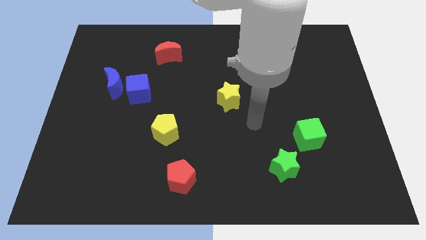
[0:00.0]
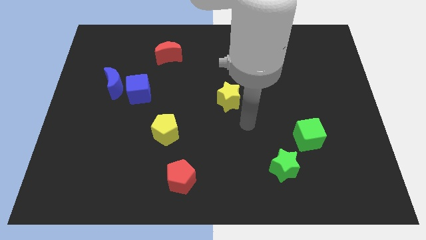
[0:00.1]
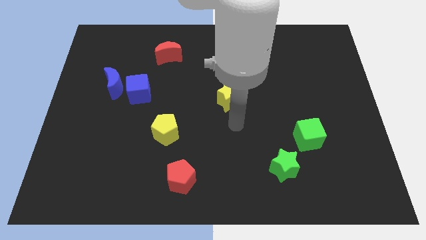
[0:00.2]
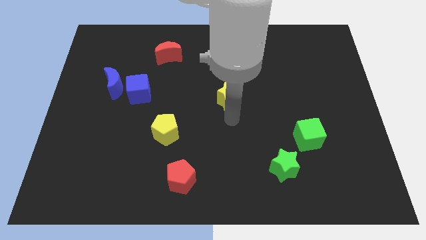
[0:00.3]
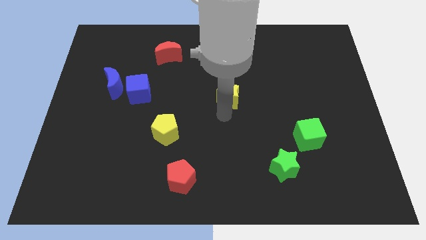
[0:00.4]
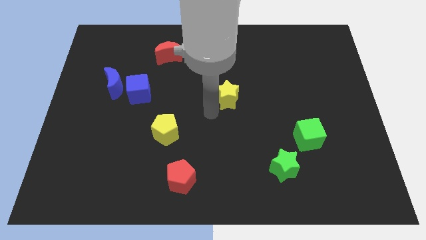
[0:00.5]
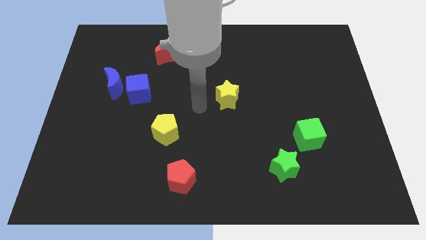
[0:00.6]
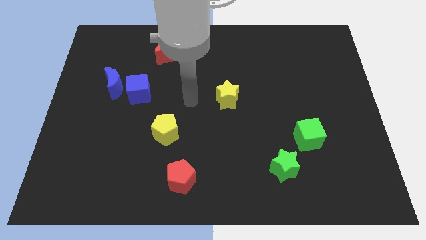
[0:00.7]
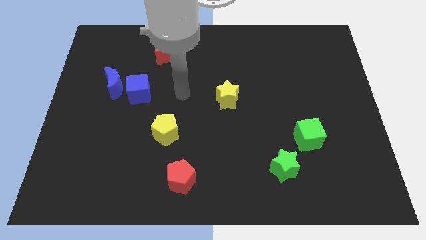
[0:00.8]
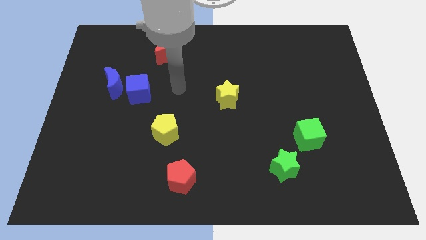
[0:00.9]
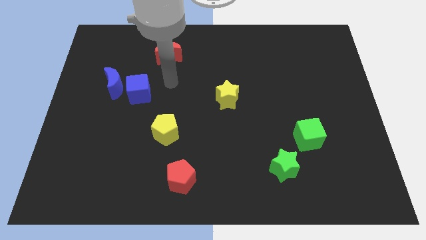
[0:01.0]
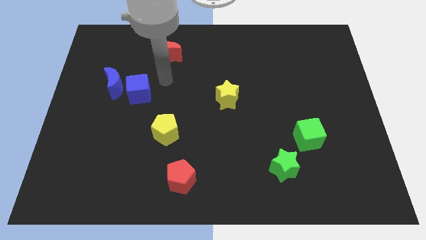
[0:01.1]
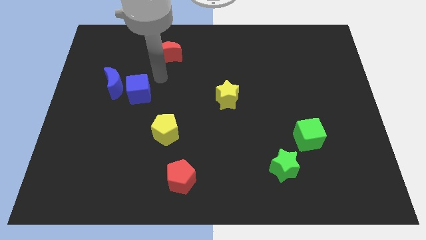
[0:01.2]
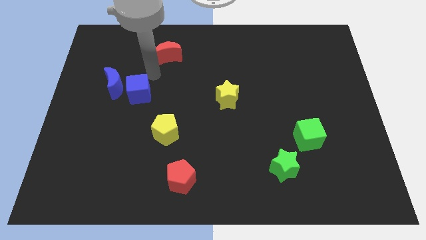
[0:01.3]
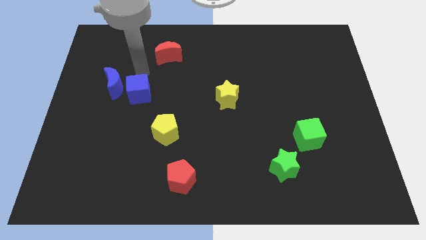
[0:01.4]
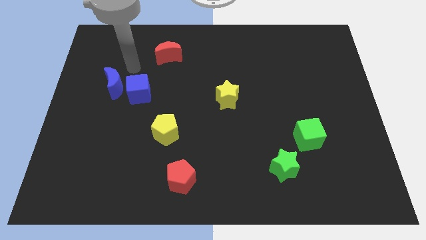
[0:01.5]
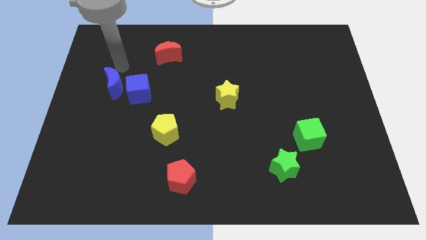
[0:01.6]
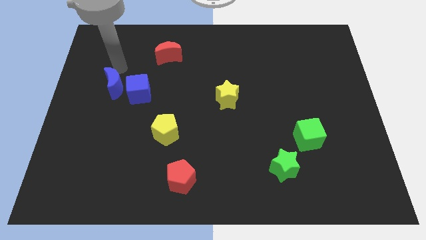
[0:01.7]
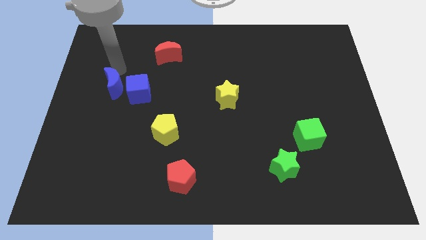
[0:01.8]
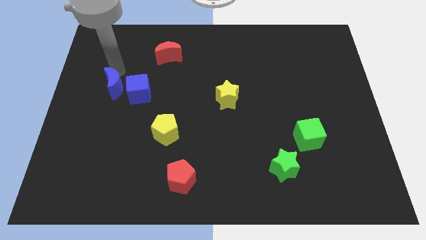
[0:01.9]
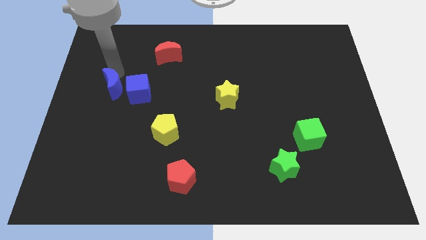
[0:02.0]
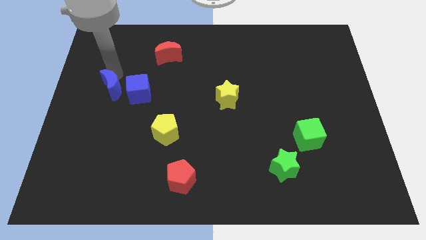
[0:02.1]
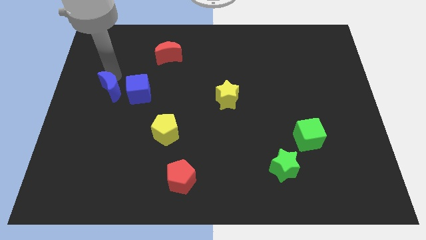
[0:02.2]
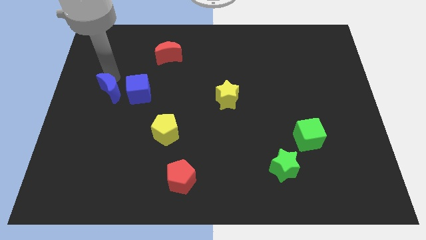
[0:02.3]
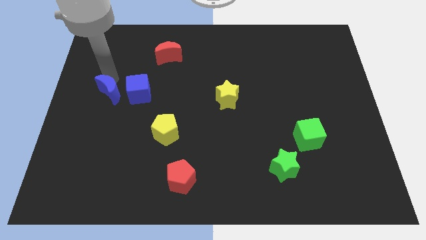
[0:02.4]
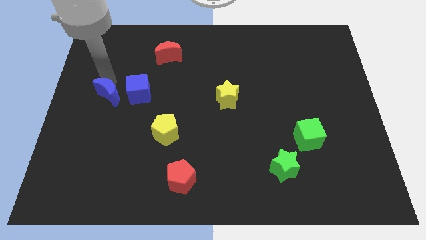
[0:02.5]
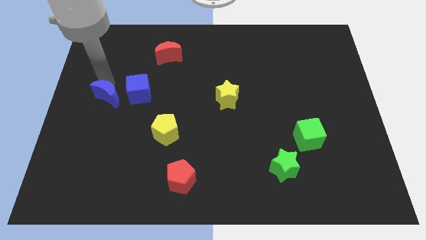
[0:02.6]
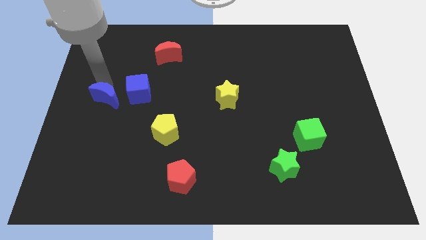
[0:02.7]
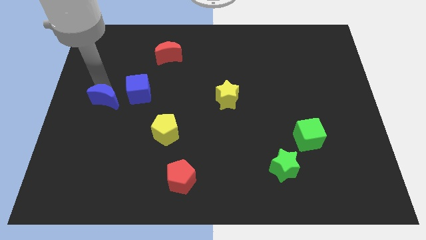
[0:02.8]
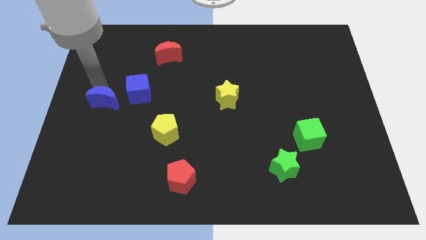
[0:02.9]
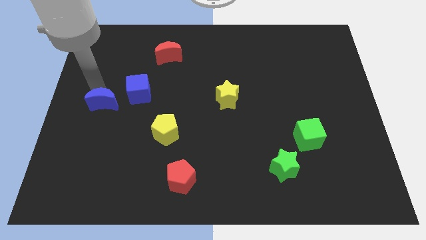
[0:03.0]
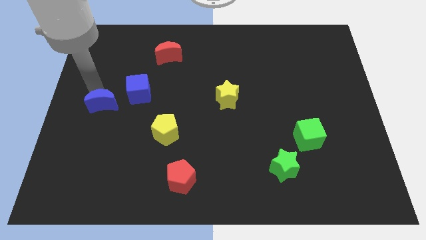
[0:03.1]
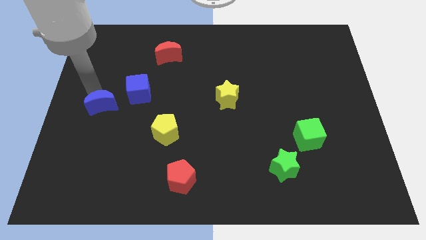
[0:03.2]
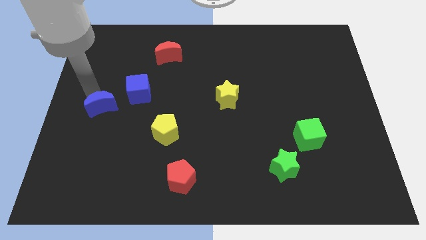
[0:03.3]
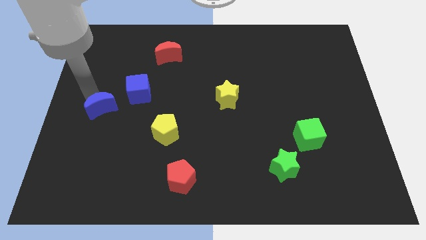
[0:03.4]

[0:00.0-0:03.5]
slide the blue moon downwards slightly

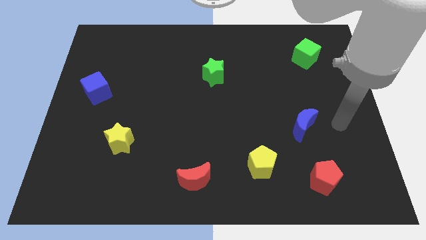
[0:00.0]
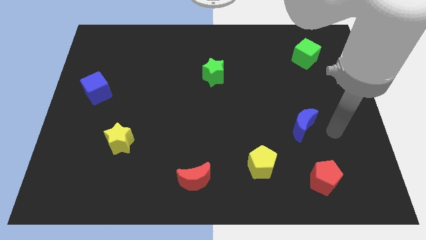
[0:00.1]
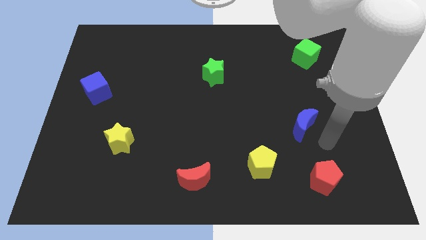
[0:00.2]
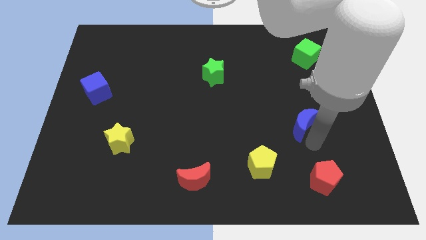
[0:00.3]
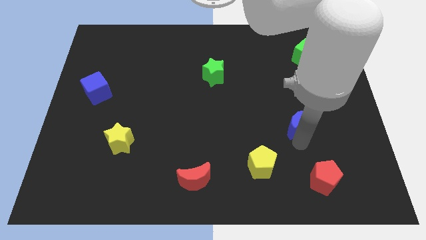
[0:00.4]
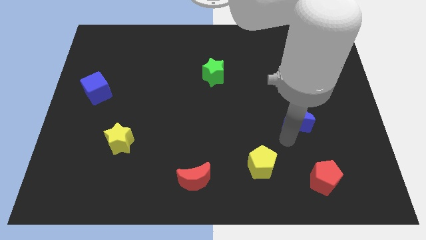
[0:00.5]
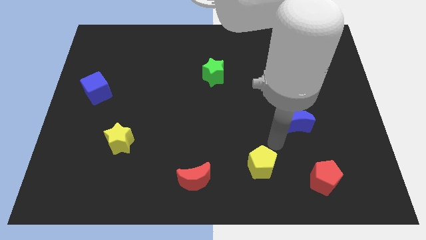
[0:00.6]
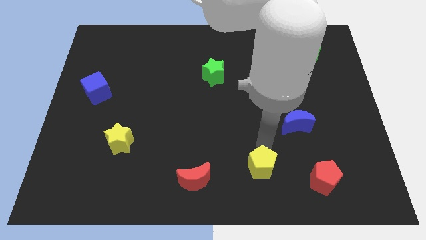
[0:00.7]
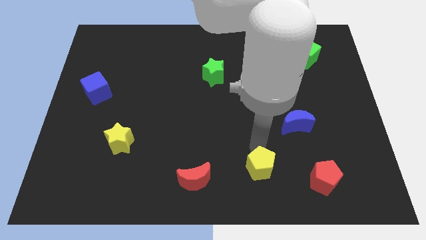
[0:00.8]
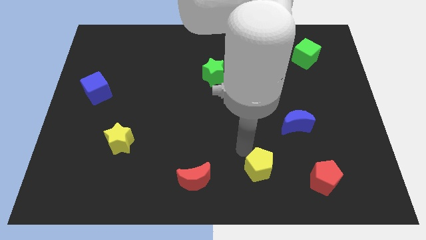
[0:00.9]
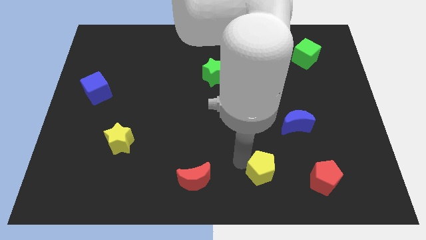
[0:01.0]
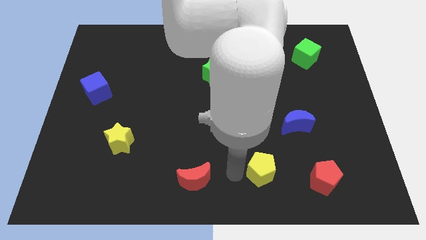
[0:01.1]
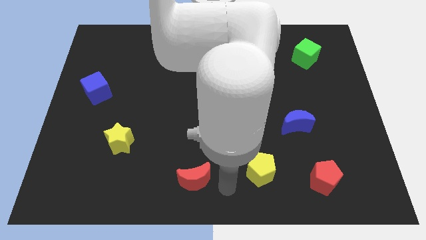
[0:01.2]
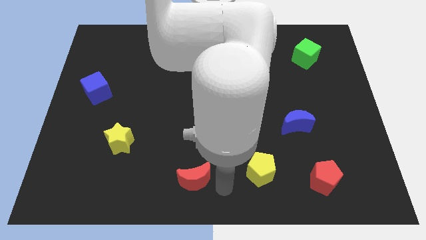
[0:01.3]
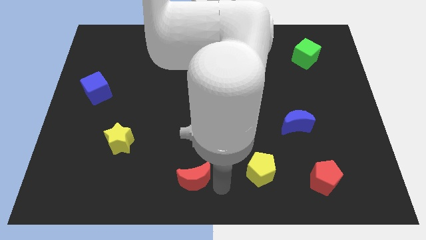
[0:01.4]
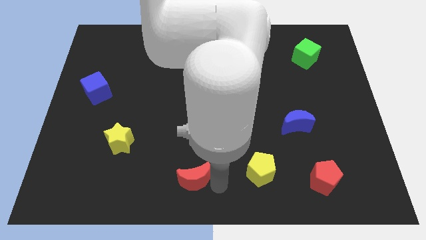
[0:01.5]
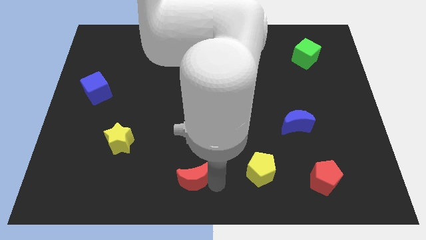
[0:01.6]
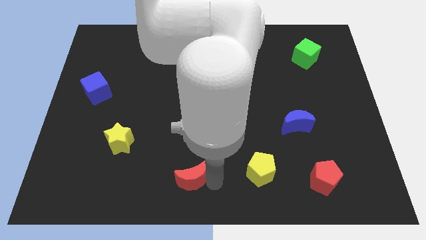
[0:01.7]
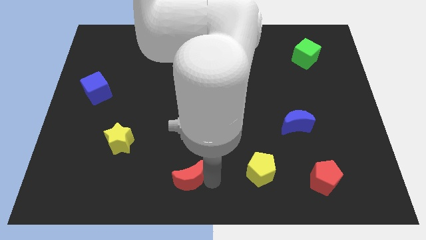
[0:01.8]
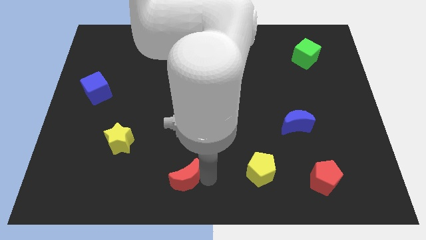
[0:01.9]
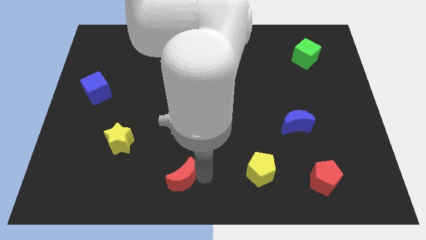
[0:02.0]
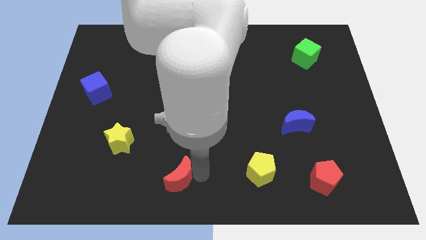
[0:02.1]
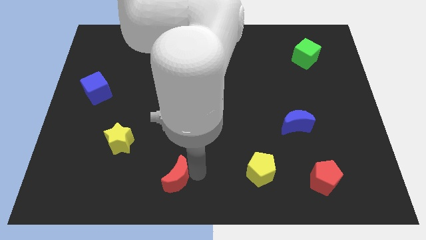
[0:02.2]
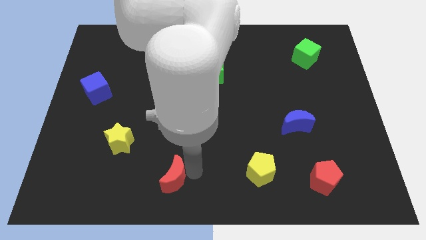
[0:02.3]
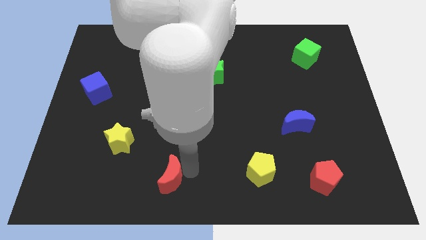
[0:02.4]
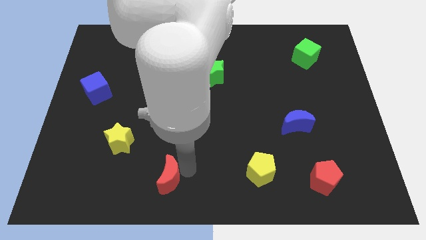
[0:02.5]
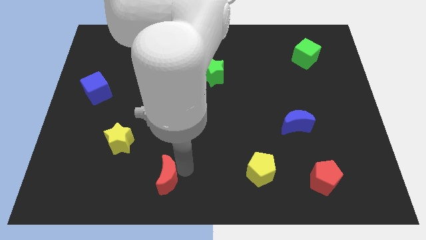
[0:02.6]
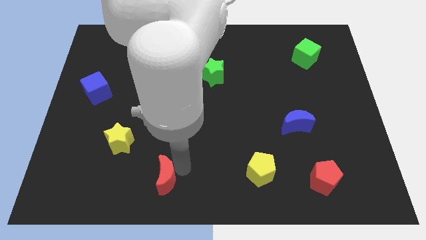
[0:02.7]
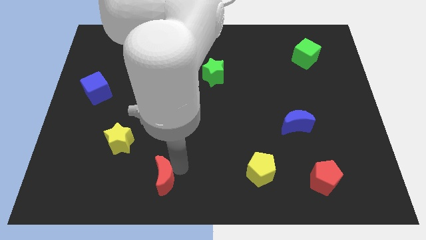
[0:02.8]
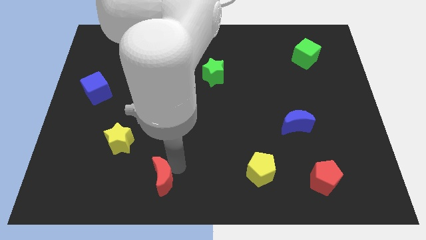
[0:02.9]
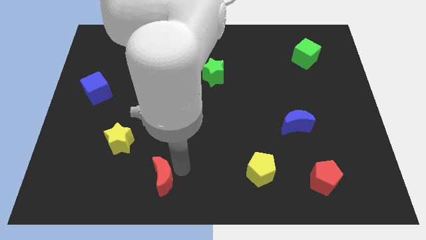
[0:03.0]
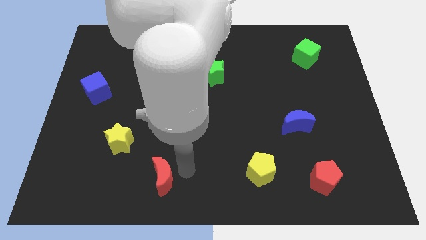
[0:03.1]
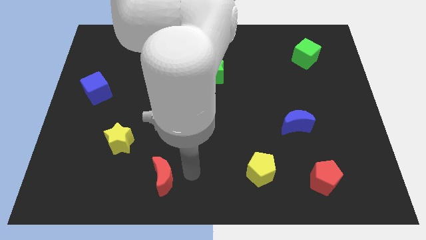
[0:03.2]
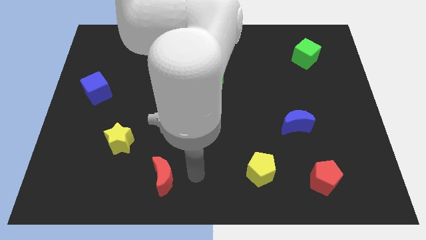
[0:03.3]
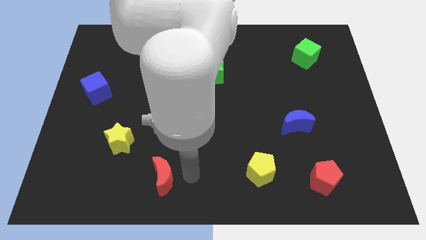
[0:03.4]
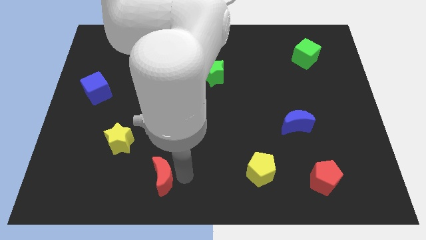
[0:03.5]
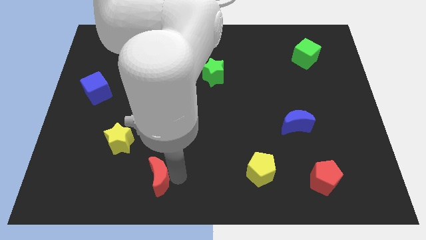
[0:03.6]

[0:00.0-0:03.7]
push the red moon slightly to the left

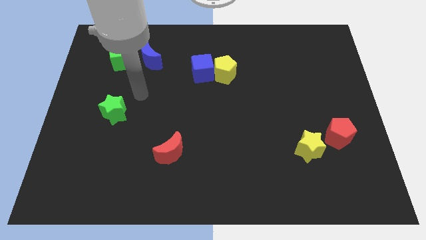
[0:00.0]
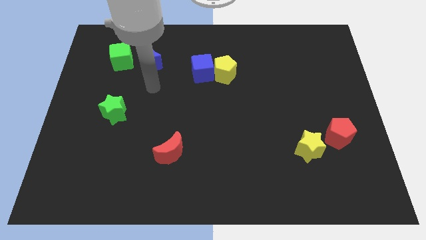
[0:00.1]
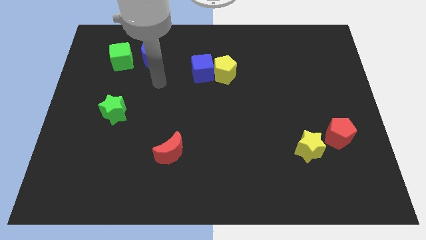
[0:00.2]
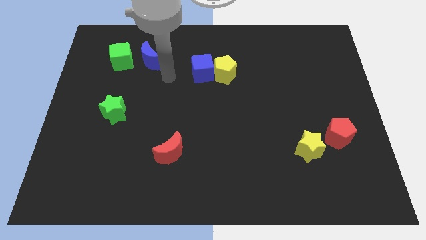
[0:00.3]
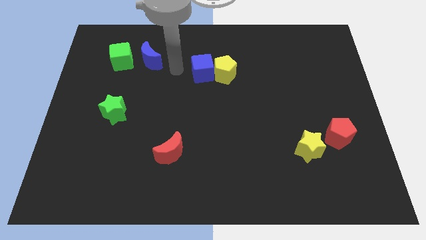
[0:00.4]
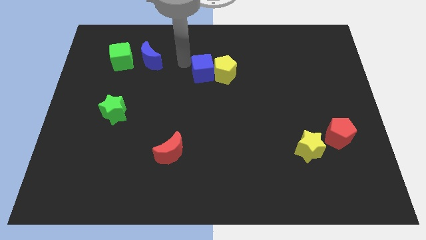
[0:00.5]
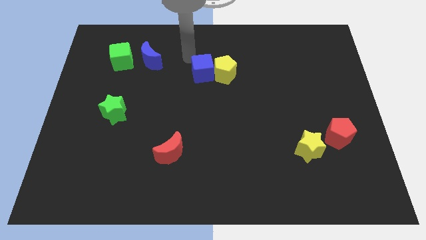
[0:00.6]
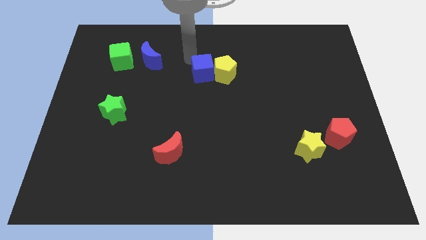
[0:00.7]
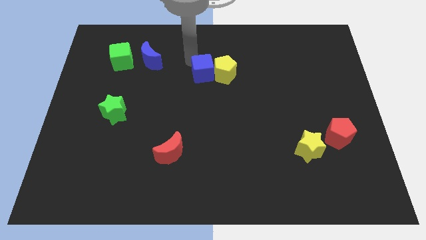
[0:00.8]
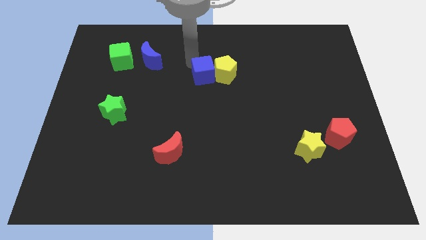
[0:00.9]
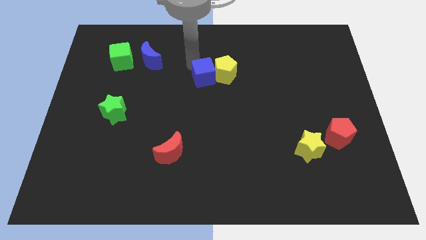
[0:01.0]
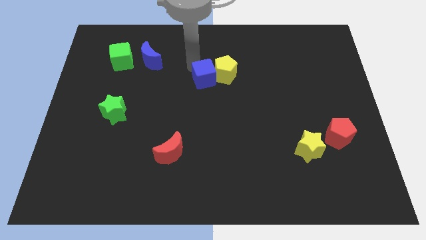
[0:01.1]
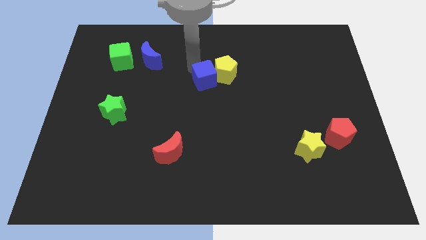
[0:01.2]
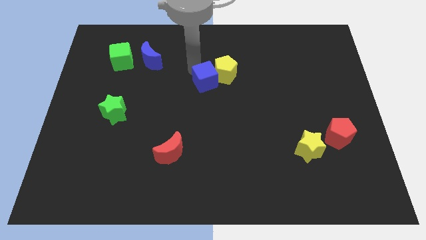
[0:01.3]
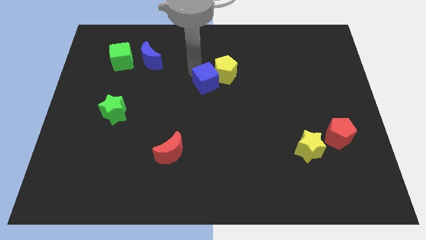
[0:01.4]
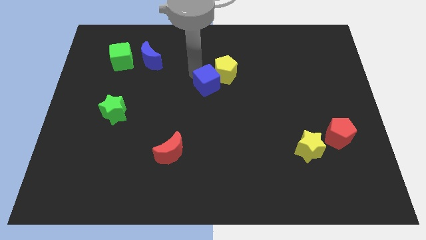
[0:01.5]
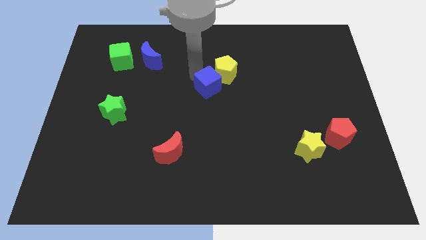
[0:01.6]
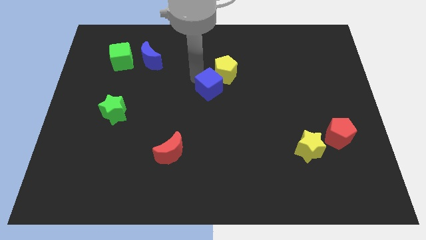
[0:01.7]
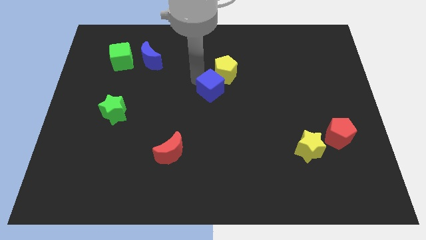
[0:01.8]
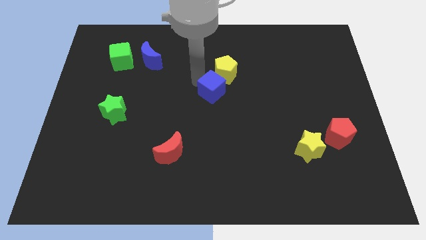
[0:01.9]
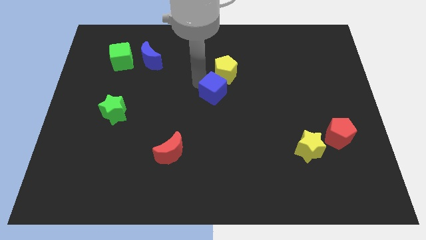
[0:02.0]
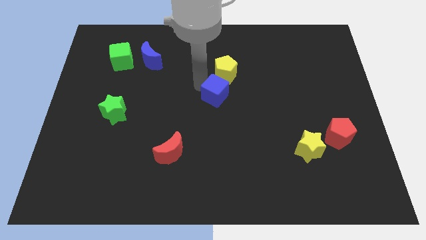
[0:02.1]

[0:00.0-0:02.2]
move the blue cube a bit downwards and then right
